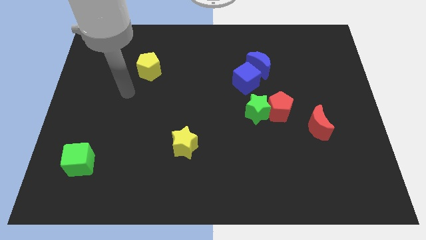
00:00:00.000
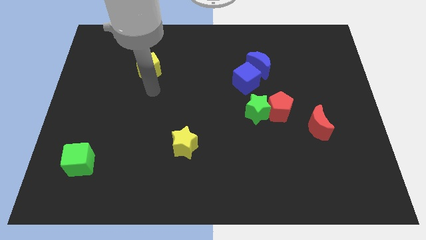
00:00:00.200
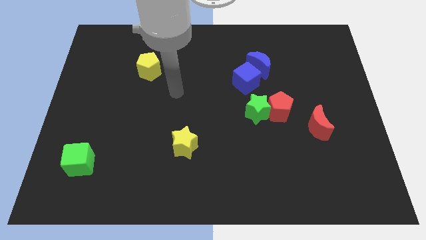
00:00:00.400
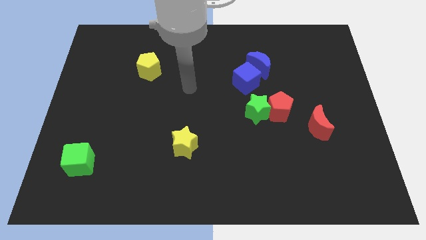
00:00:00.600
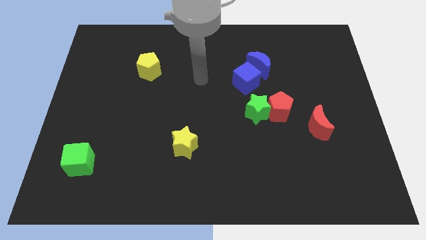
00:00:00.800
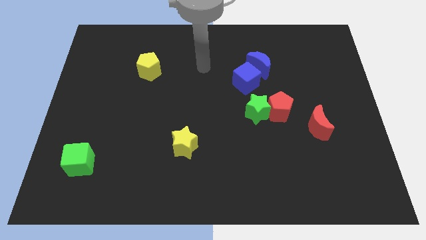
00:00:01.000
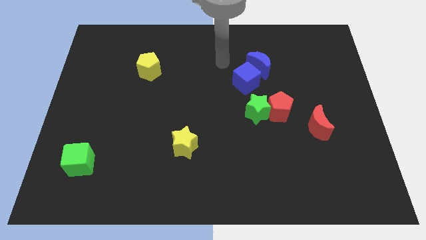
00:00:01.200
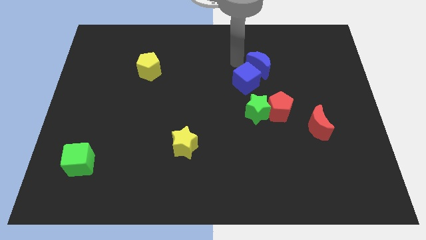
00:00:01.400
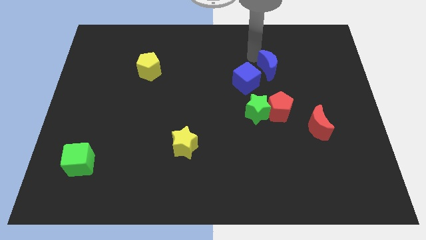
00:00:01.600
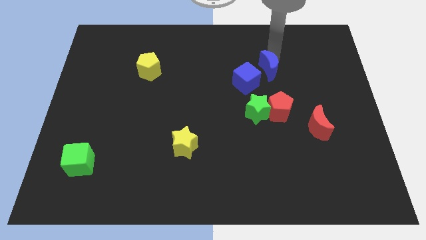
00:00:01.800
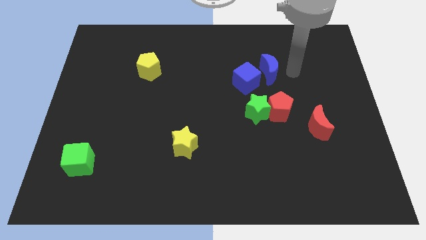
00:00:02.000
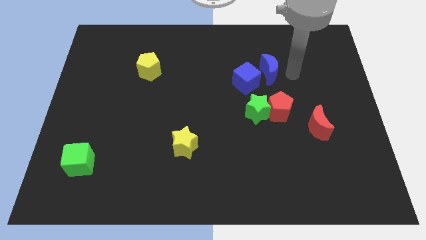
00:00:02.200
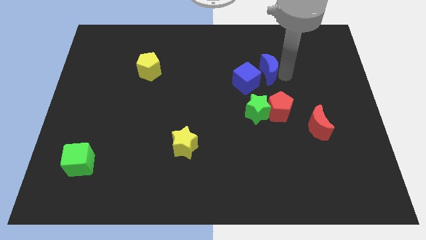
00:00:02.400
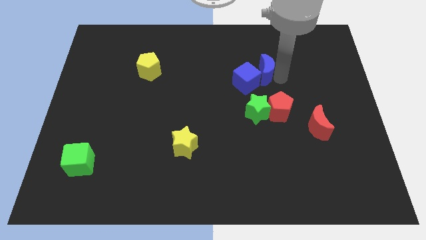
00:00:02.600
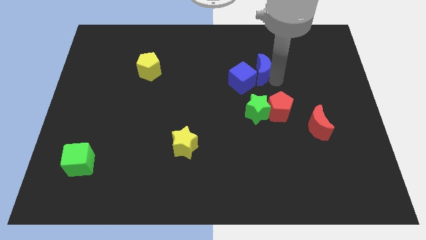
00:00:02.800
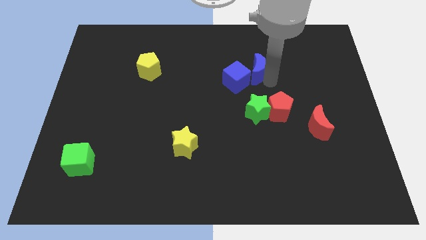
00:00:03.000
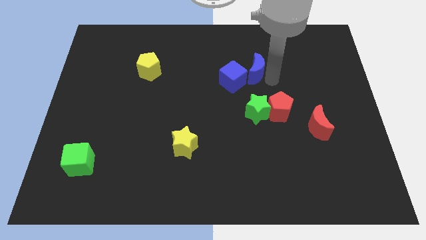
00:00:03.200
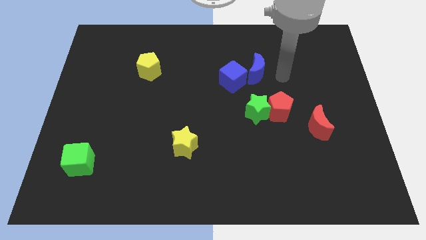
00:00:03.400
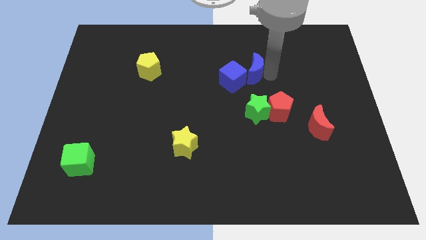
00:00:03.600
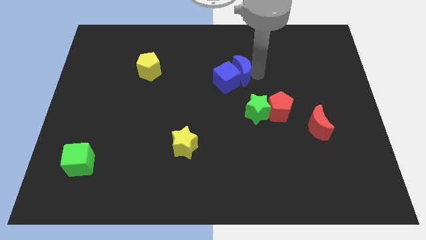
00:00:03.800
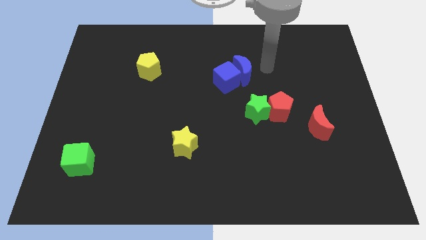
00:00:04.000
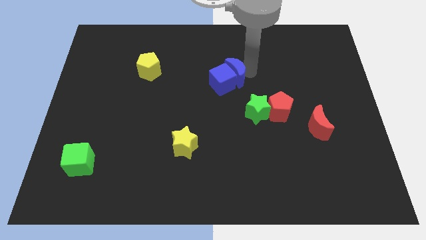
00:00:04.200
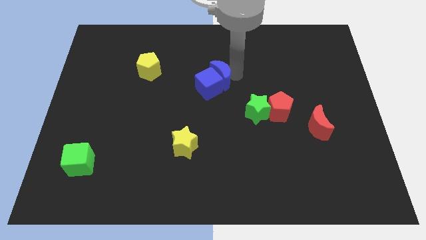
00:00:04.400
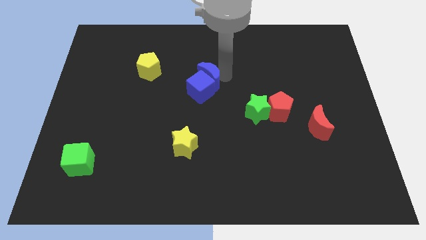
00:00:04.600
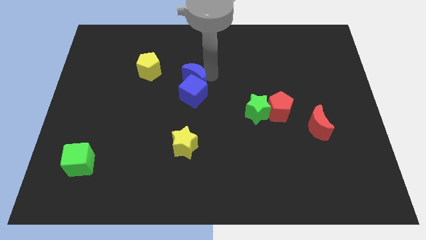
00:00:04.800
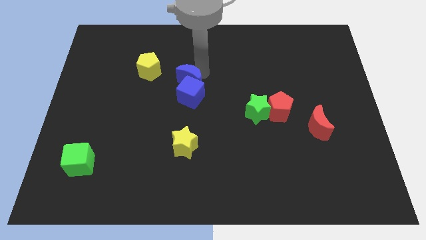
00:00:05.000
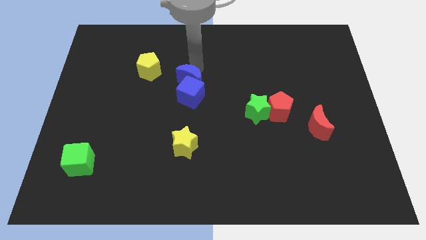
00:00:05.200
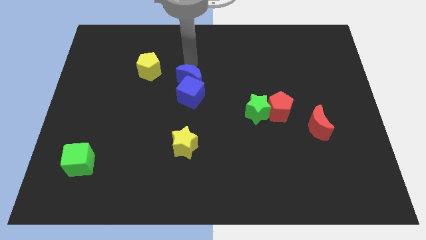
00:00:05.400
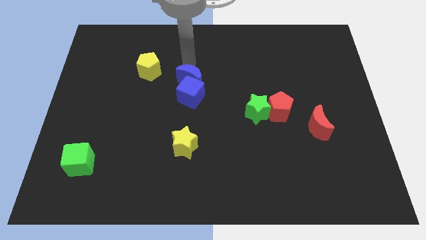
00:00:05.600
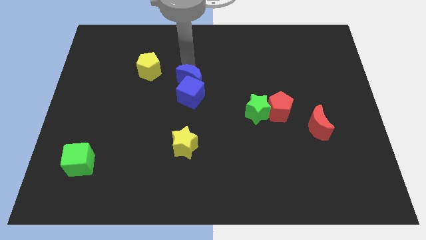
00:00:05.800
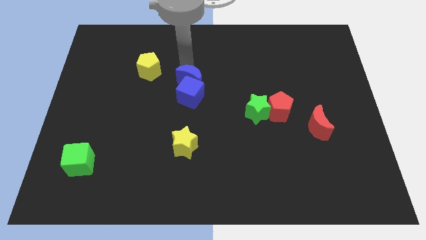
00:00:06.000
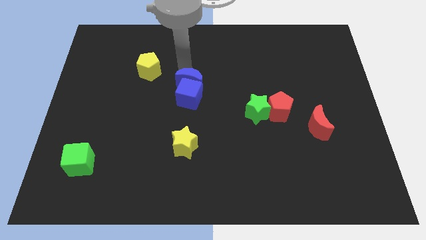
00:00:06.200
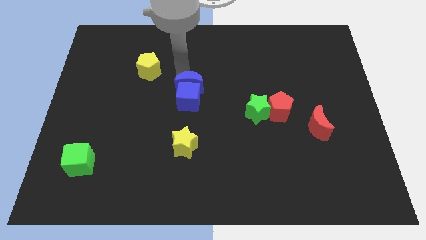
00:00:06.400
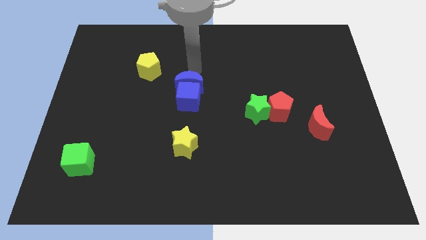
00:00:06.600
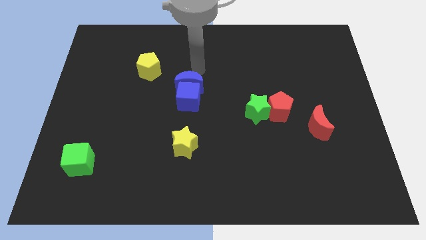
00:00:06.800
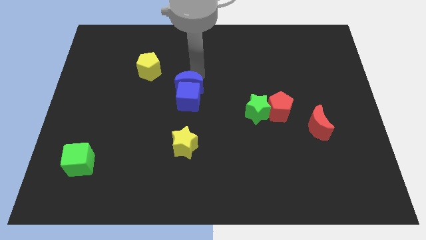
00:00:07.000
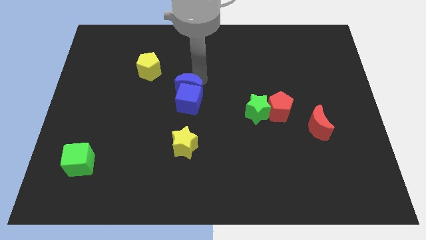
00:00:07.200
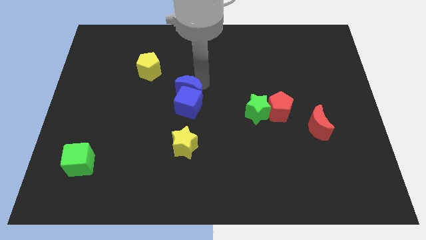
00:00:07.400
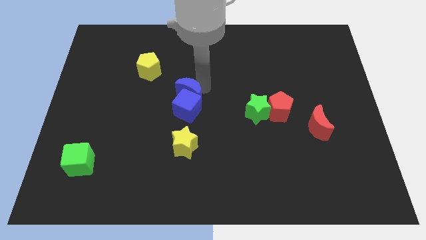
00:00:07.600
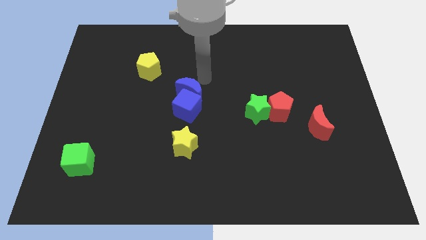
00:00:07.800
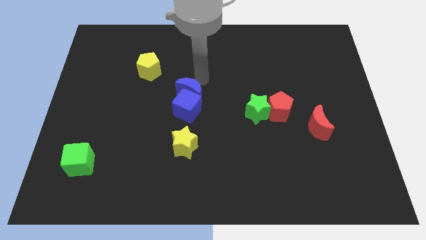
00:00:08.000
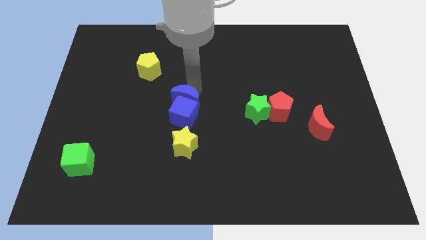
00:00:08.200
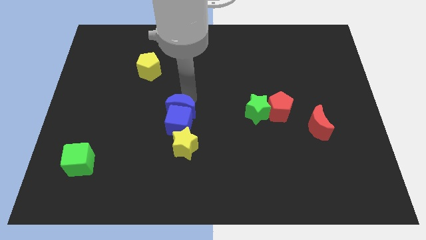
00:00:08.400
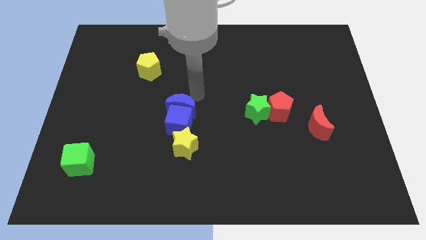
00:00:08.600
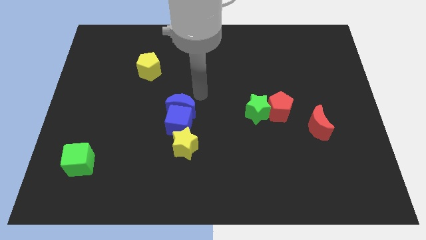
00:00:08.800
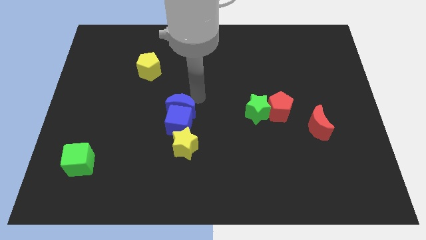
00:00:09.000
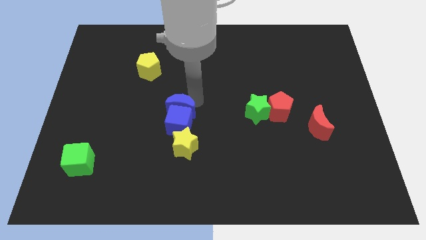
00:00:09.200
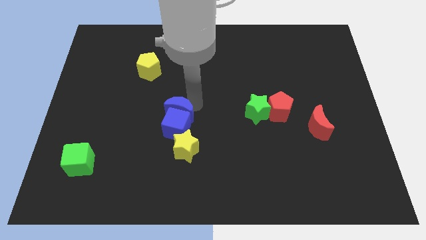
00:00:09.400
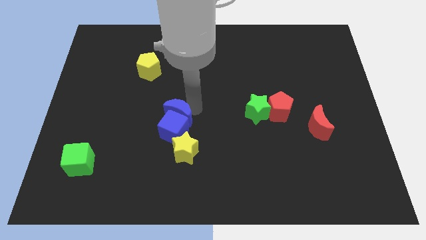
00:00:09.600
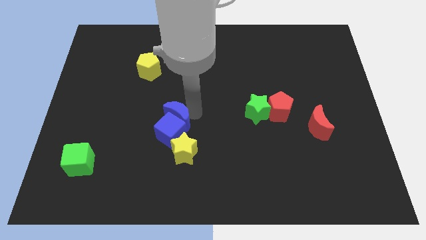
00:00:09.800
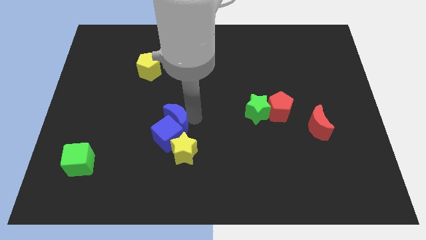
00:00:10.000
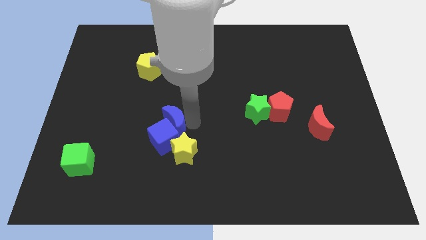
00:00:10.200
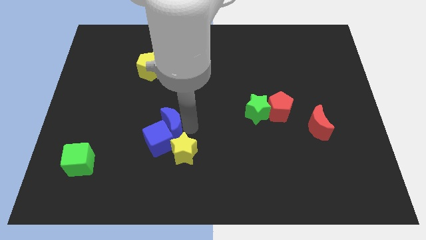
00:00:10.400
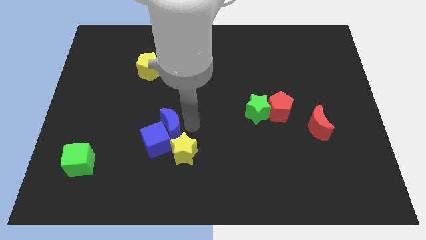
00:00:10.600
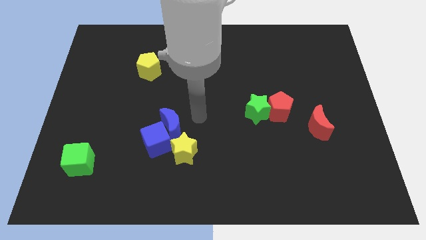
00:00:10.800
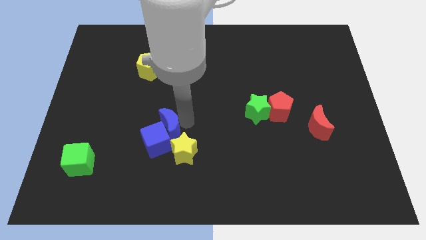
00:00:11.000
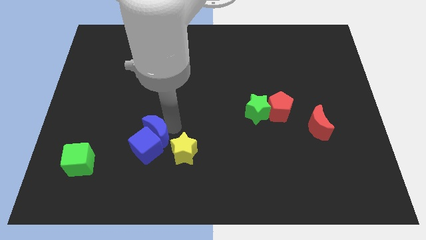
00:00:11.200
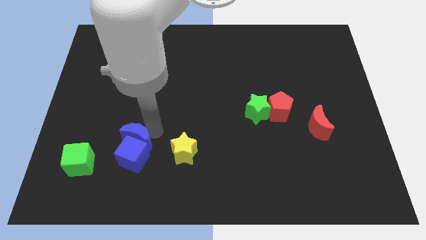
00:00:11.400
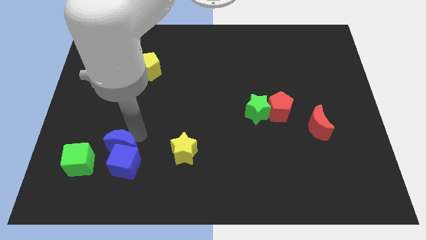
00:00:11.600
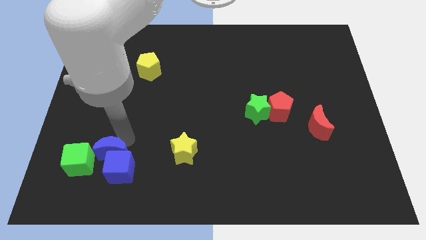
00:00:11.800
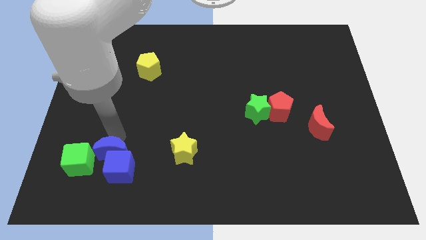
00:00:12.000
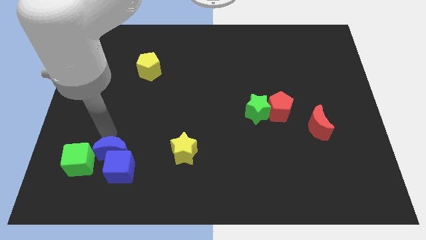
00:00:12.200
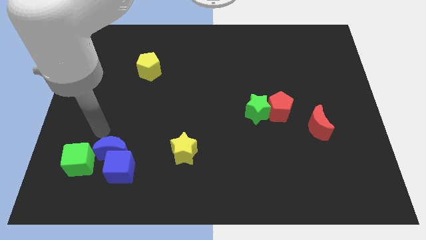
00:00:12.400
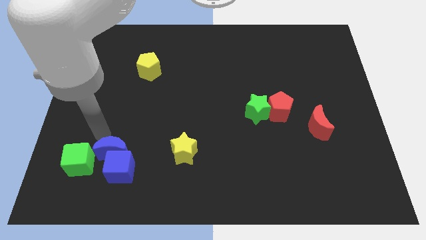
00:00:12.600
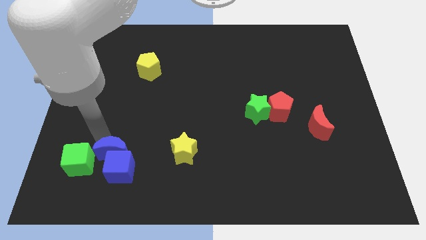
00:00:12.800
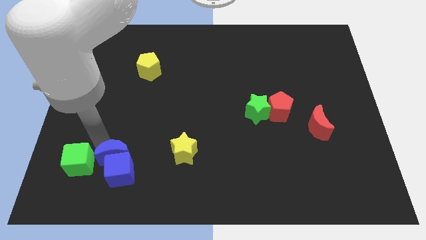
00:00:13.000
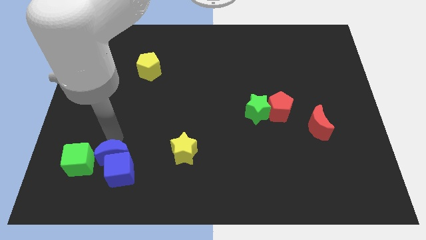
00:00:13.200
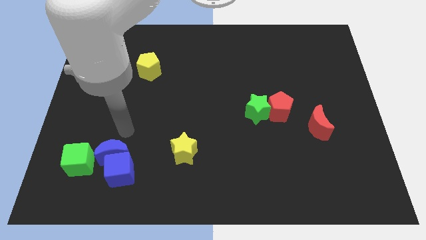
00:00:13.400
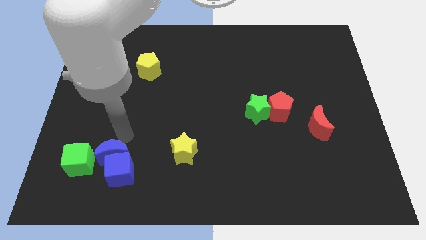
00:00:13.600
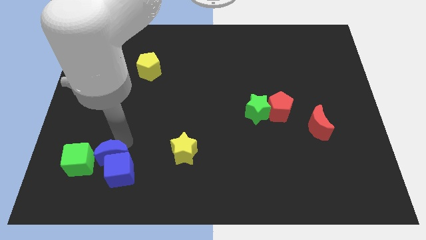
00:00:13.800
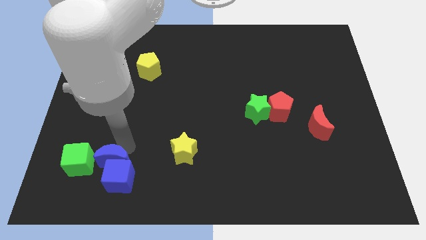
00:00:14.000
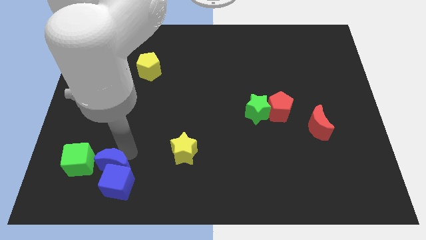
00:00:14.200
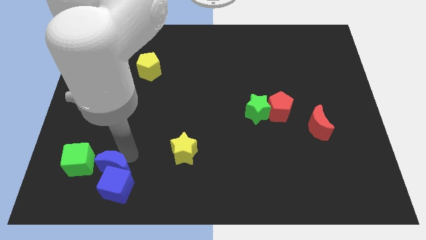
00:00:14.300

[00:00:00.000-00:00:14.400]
put the blue moon diagonally down and to the right of the green cube
